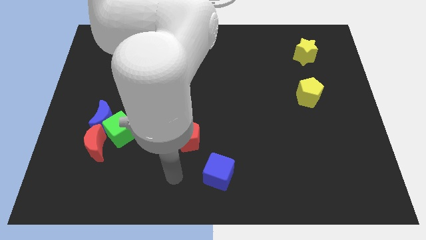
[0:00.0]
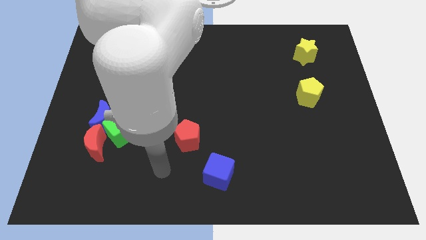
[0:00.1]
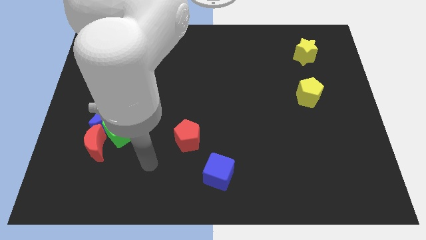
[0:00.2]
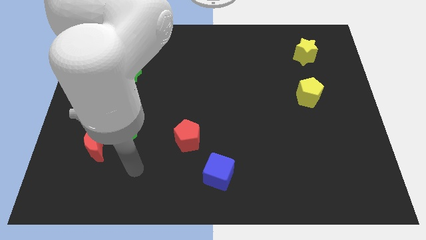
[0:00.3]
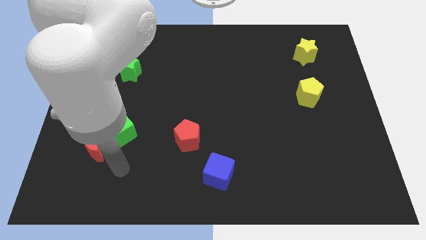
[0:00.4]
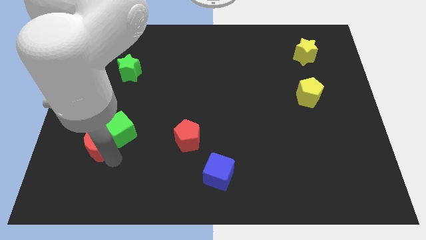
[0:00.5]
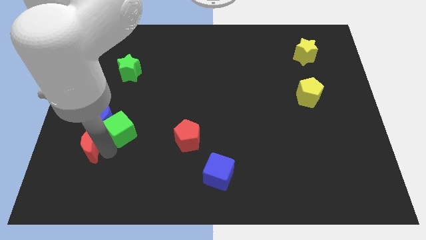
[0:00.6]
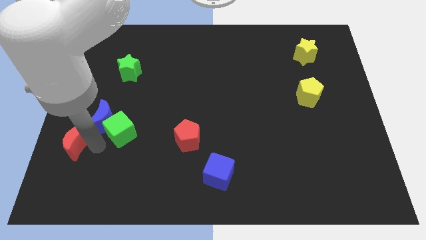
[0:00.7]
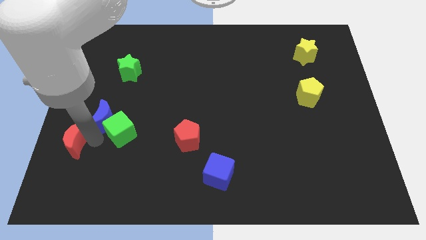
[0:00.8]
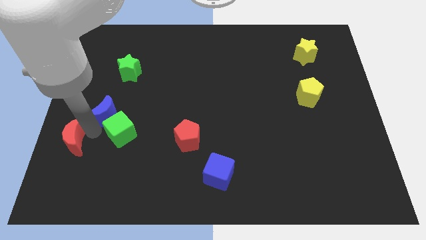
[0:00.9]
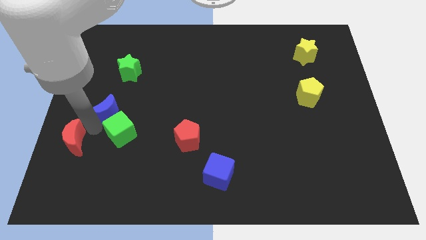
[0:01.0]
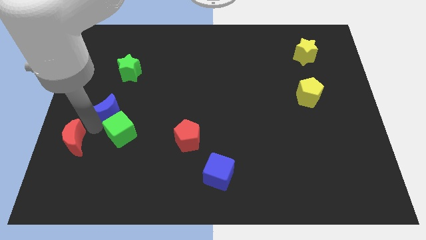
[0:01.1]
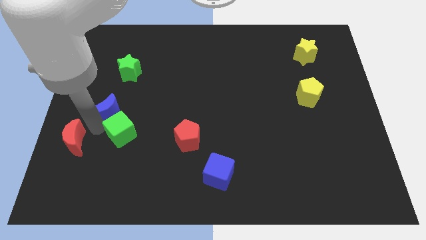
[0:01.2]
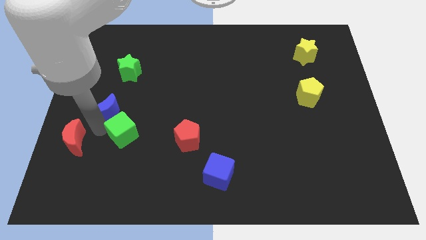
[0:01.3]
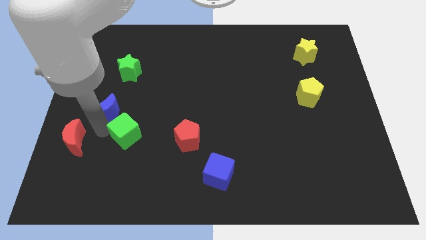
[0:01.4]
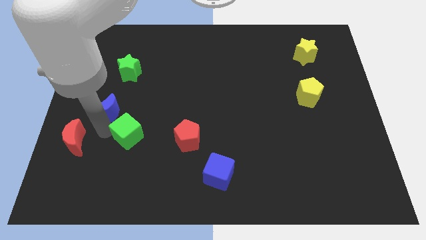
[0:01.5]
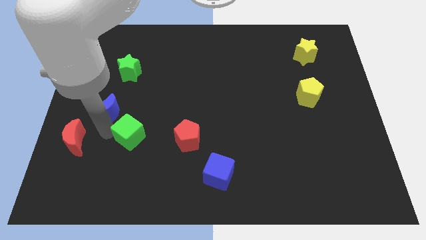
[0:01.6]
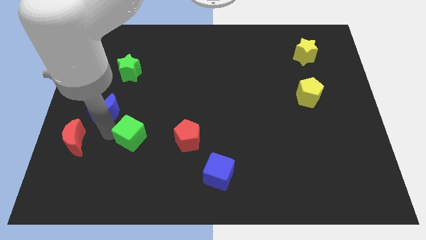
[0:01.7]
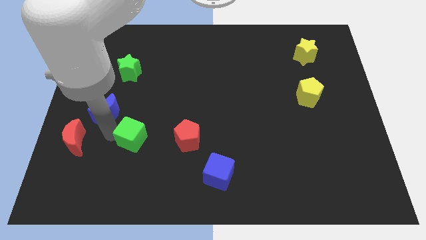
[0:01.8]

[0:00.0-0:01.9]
move the green cube away from the blue moon and red moon

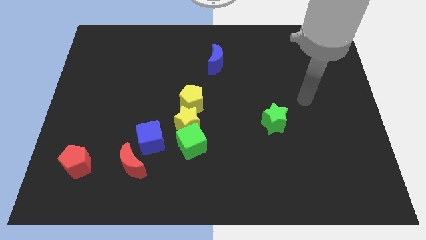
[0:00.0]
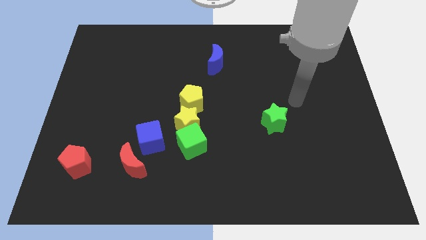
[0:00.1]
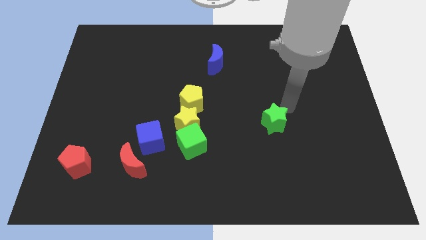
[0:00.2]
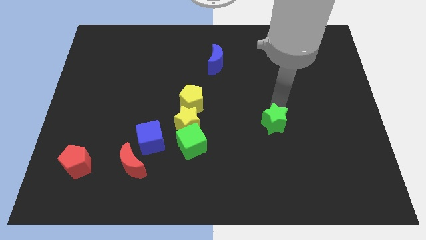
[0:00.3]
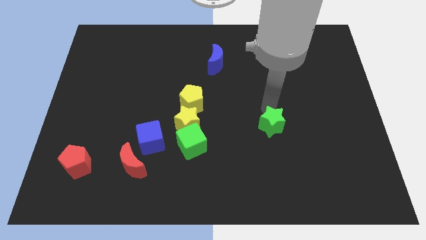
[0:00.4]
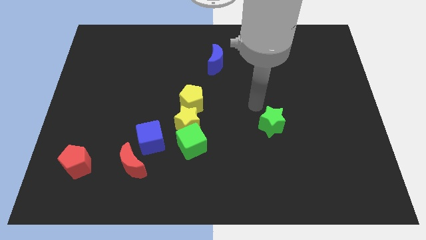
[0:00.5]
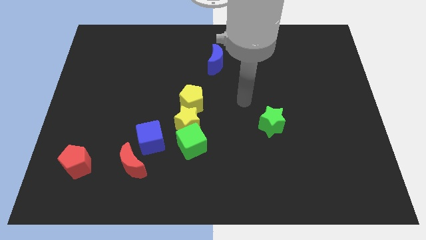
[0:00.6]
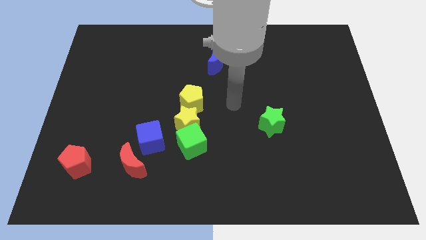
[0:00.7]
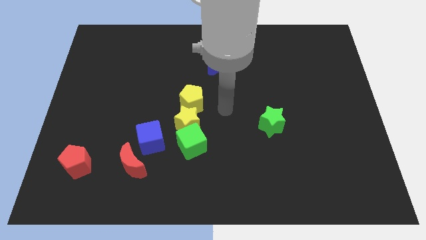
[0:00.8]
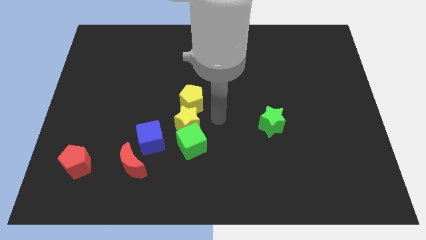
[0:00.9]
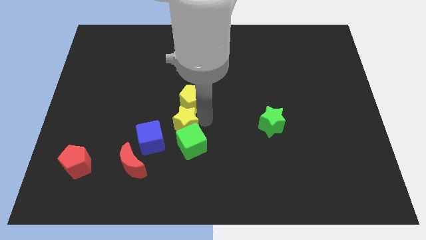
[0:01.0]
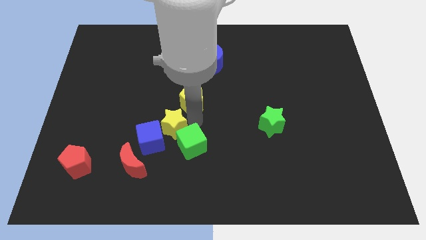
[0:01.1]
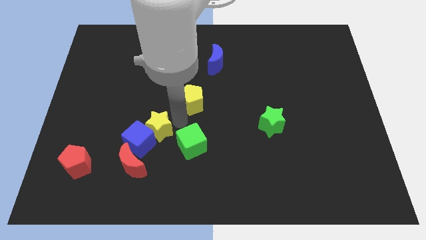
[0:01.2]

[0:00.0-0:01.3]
move the yellow pentagon away from the yellow star

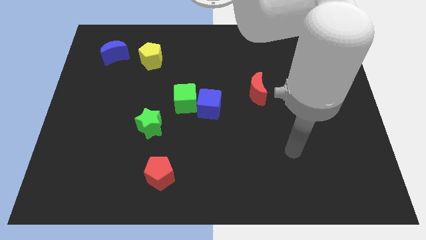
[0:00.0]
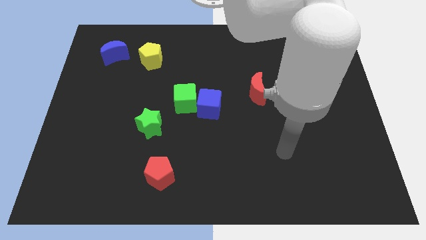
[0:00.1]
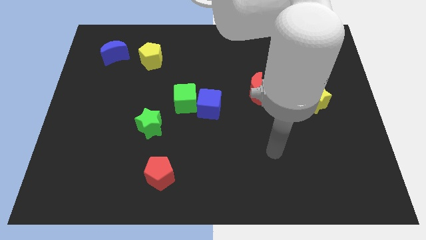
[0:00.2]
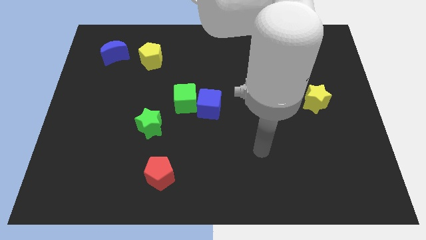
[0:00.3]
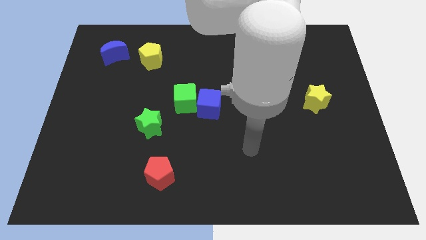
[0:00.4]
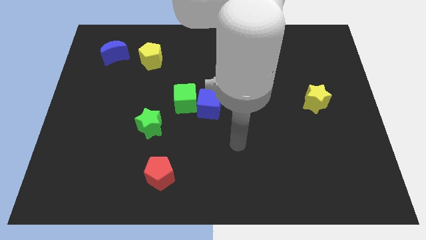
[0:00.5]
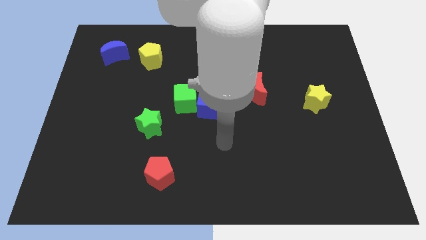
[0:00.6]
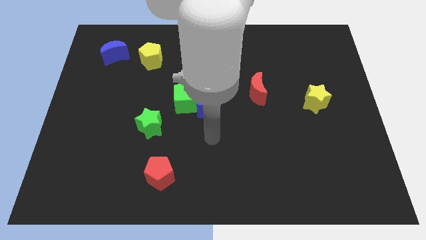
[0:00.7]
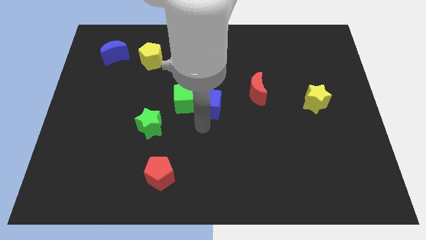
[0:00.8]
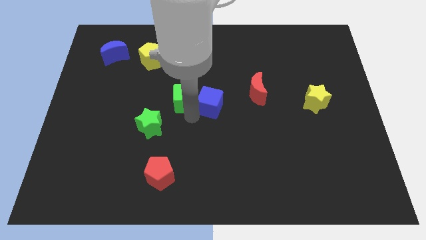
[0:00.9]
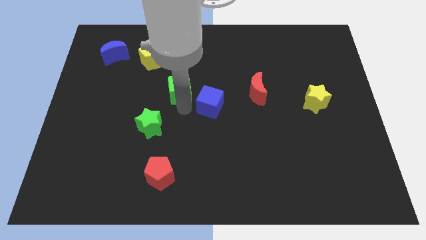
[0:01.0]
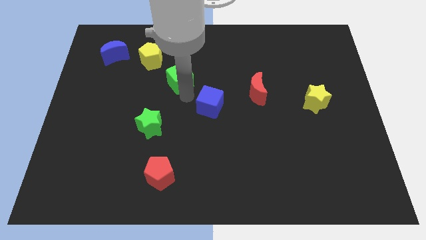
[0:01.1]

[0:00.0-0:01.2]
move the blue cube away from the green cube

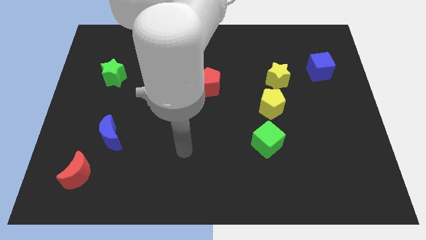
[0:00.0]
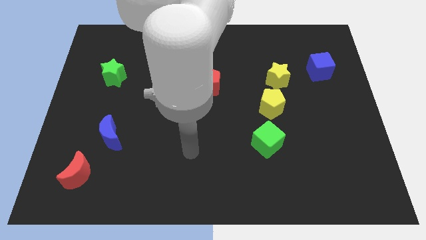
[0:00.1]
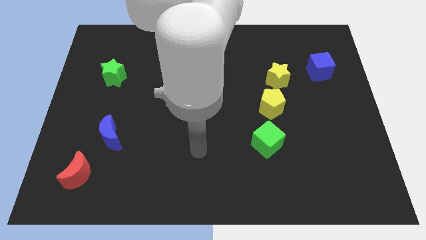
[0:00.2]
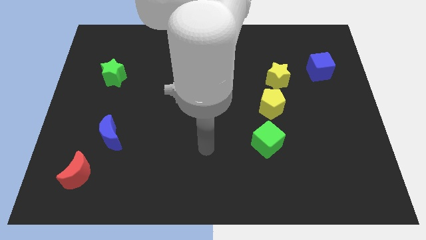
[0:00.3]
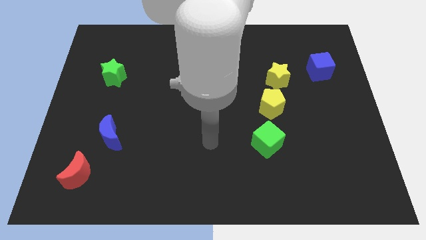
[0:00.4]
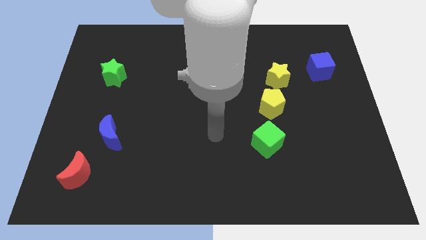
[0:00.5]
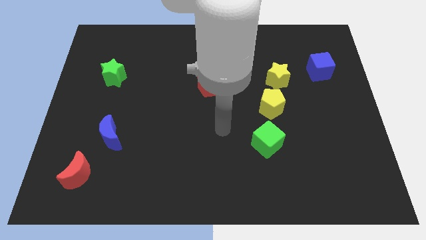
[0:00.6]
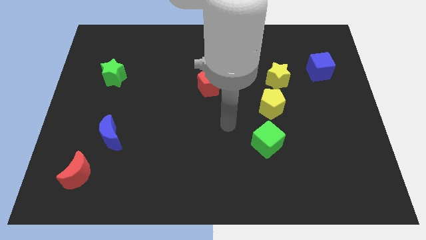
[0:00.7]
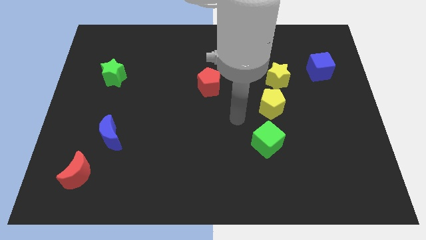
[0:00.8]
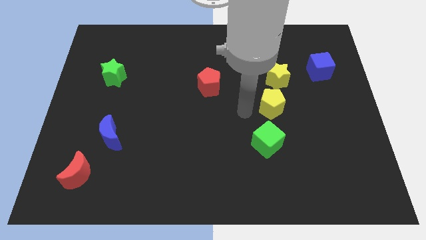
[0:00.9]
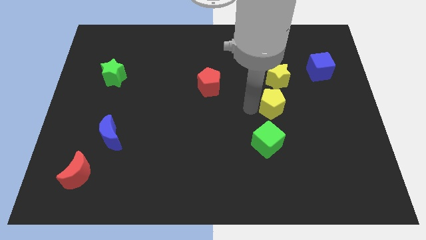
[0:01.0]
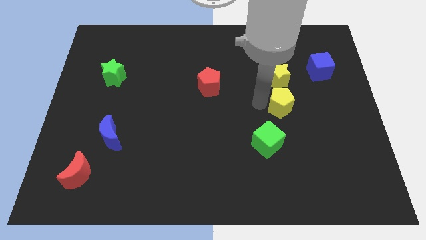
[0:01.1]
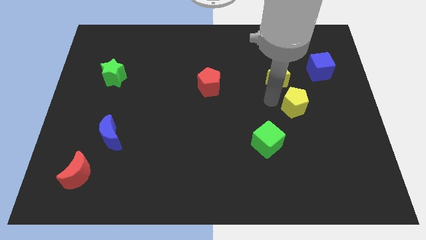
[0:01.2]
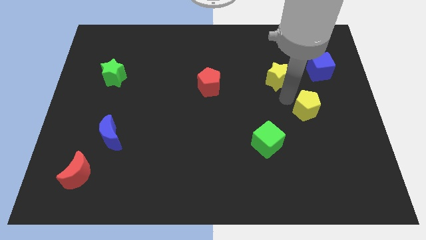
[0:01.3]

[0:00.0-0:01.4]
pull the yellow star apart from the yellow pentagon

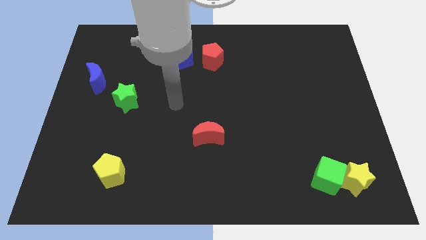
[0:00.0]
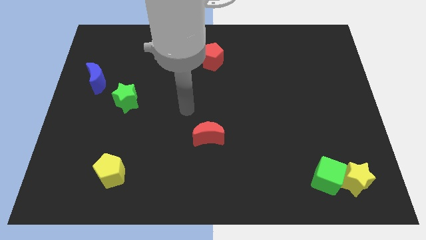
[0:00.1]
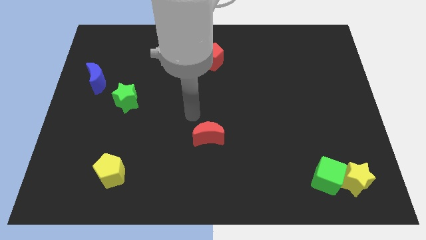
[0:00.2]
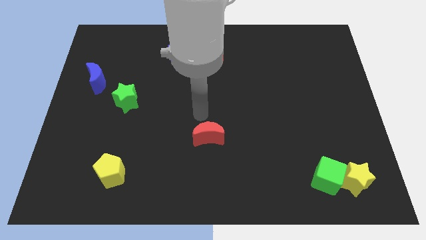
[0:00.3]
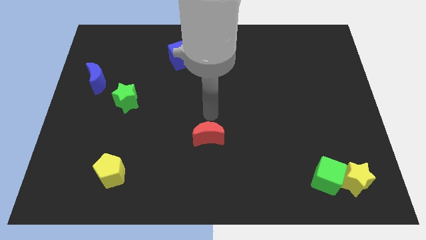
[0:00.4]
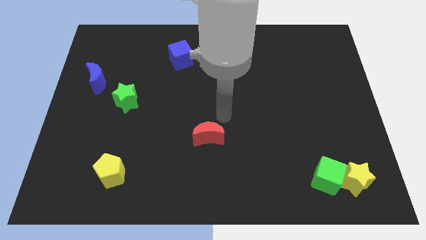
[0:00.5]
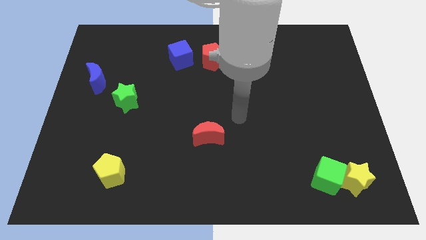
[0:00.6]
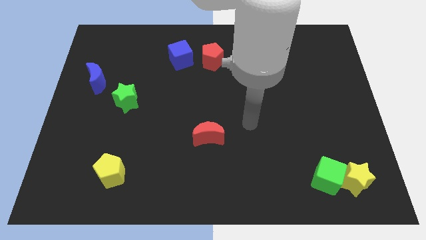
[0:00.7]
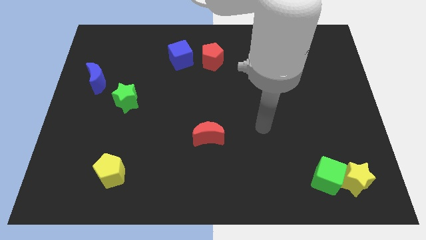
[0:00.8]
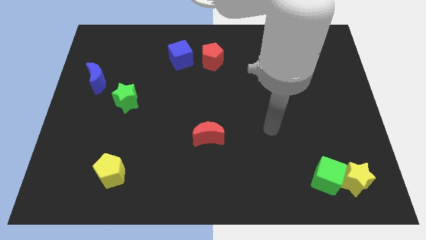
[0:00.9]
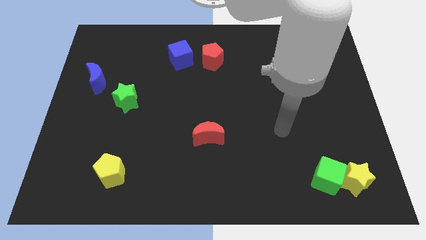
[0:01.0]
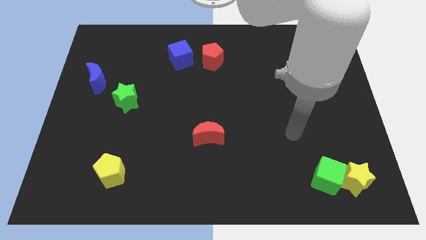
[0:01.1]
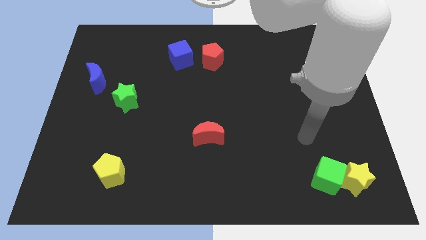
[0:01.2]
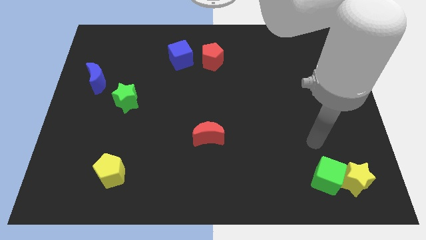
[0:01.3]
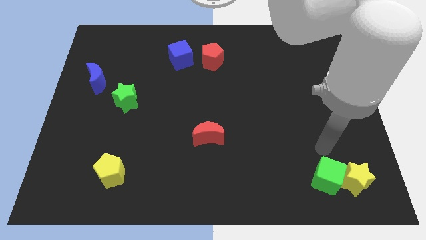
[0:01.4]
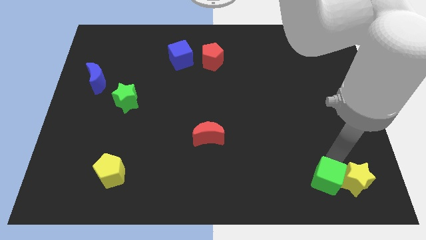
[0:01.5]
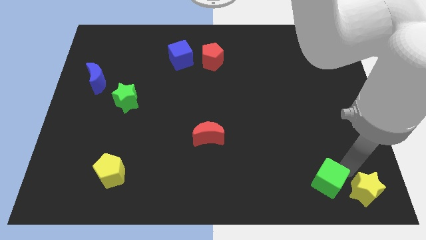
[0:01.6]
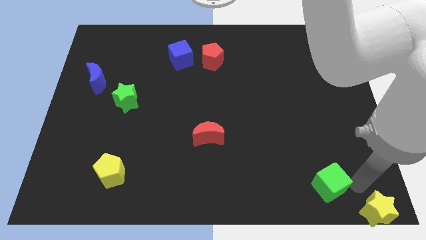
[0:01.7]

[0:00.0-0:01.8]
separate the green cube from the yellow star

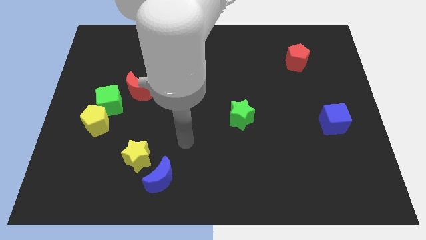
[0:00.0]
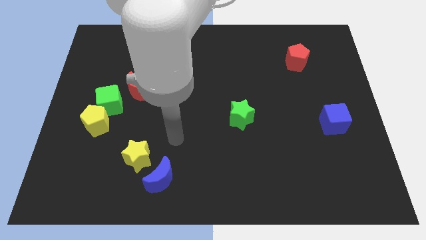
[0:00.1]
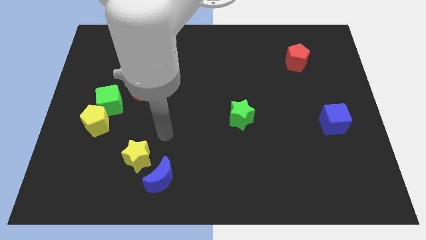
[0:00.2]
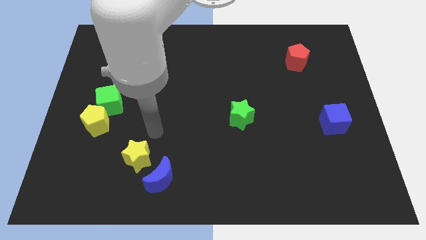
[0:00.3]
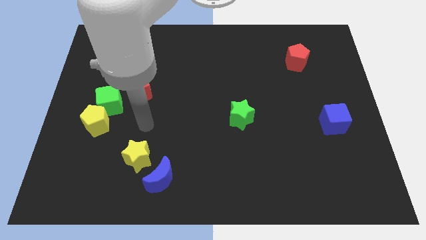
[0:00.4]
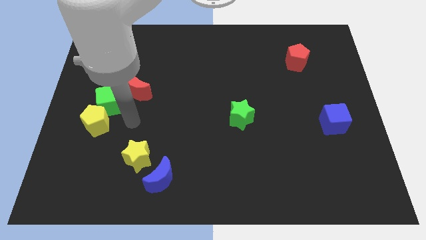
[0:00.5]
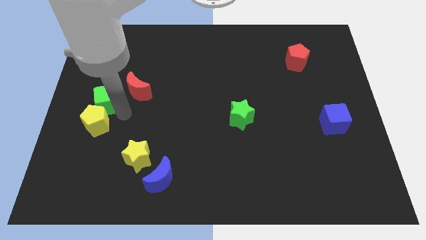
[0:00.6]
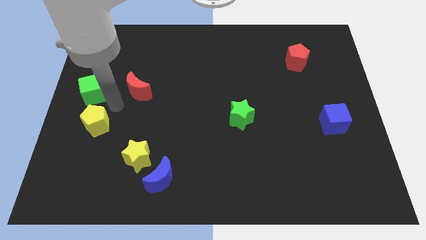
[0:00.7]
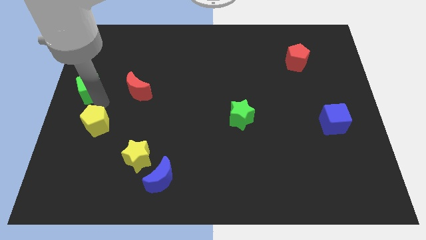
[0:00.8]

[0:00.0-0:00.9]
pull the yellow pentagon apart from the green cube

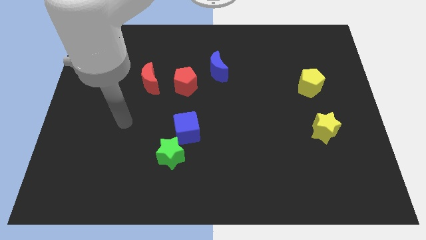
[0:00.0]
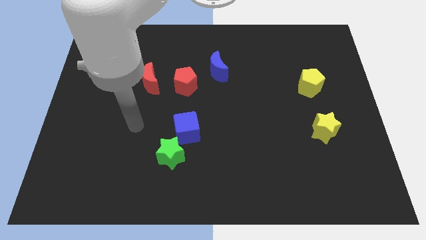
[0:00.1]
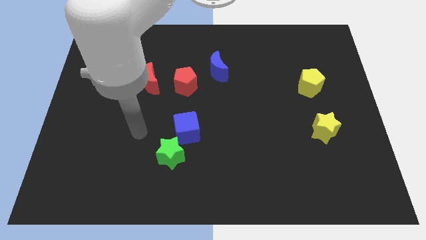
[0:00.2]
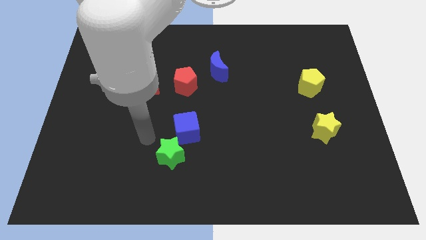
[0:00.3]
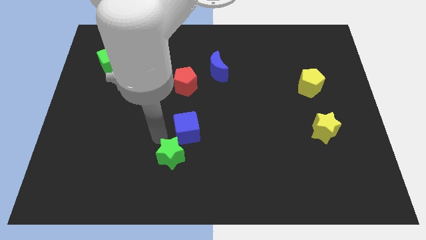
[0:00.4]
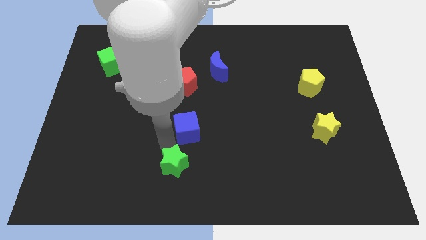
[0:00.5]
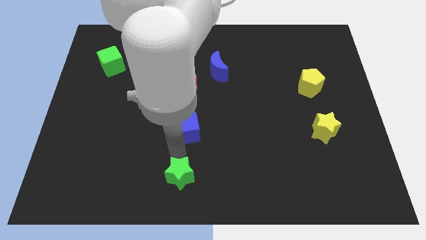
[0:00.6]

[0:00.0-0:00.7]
separate the blue cube from the green star
